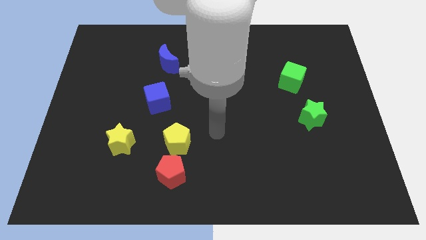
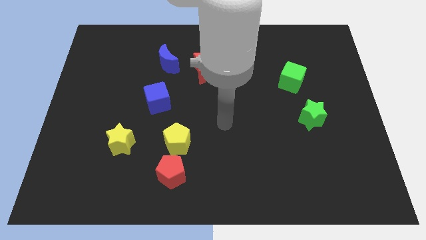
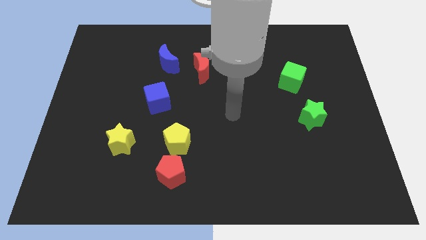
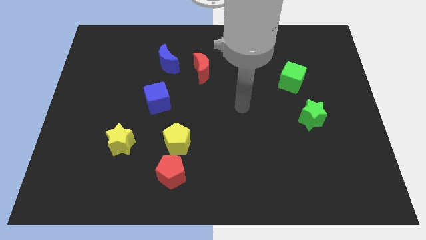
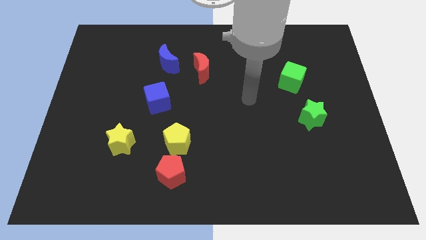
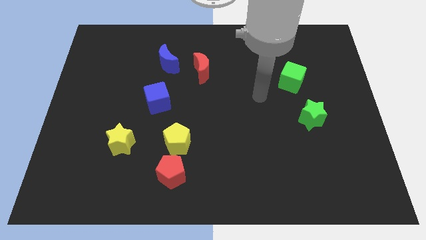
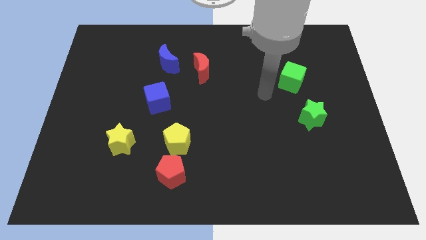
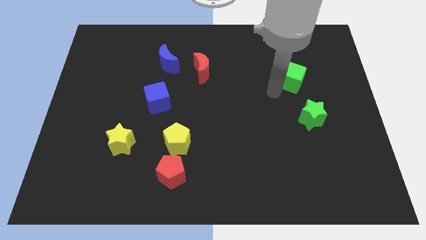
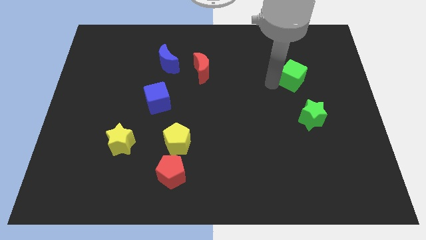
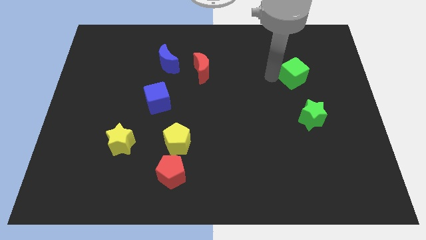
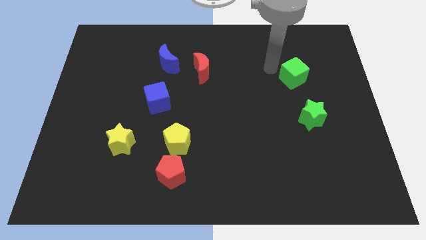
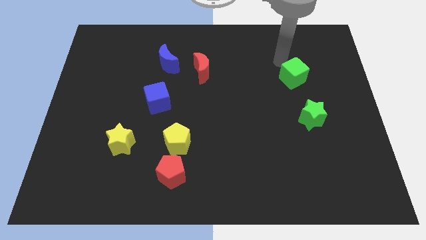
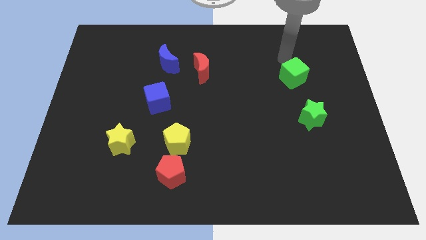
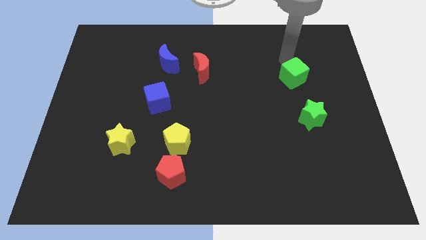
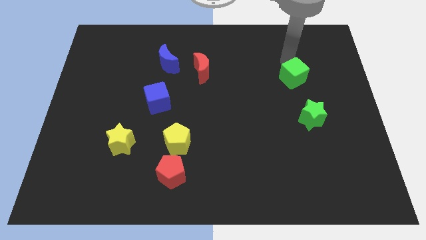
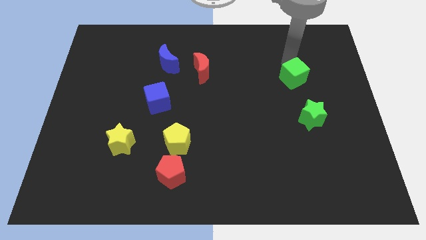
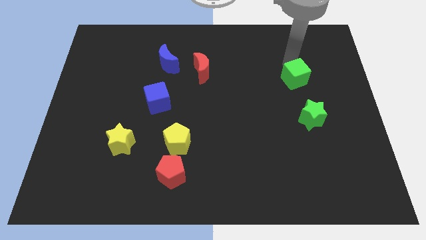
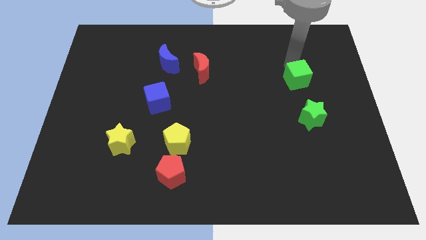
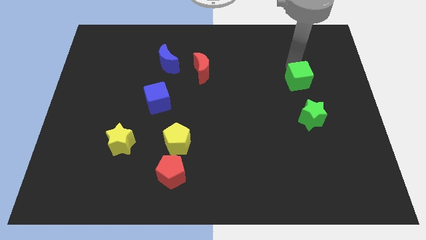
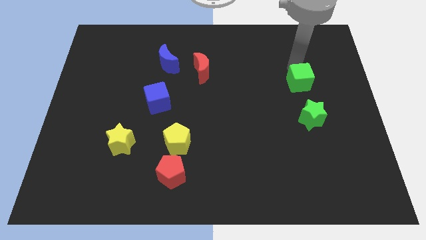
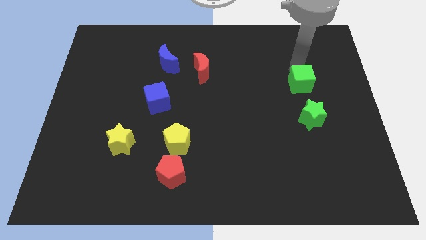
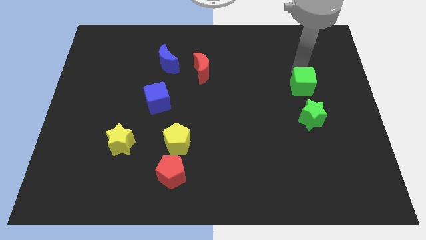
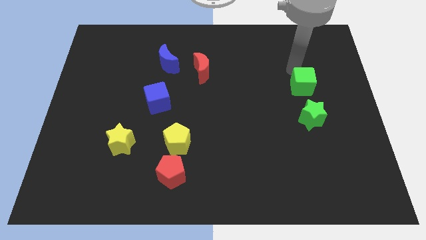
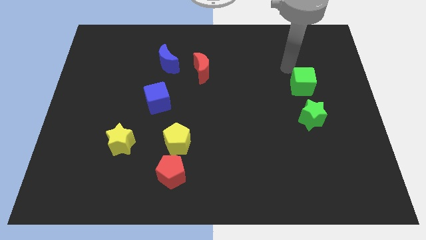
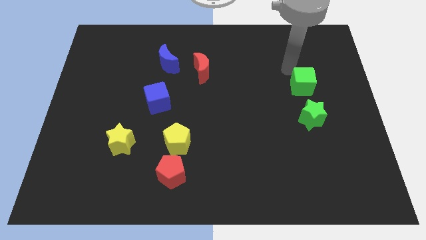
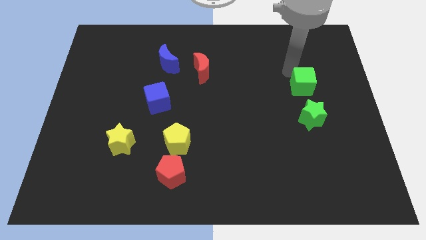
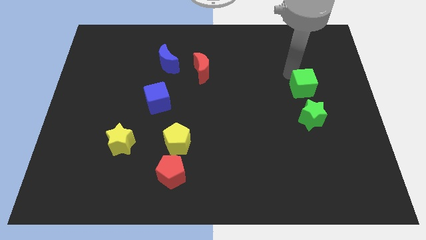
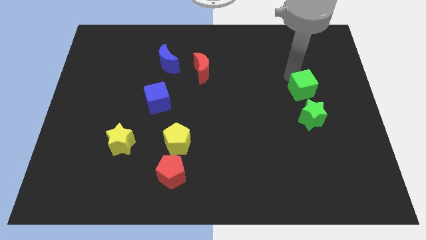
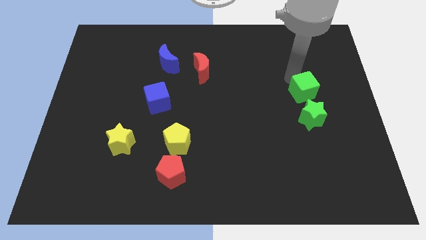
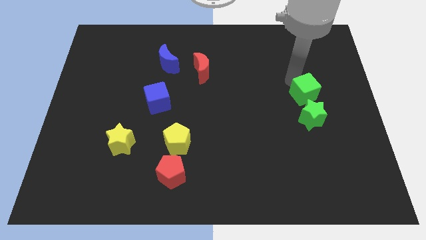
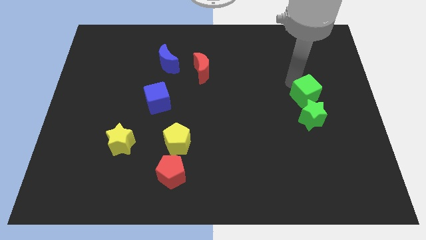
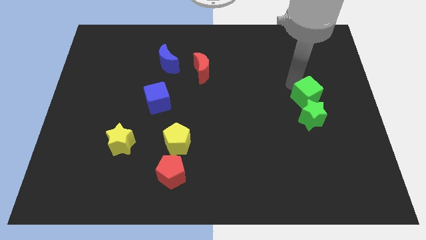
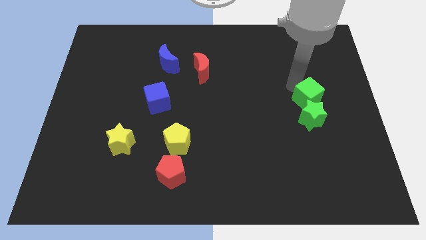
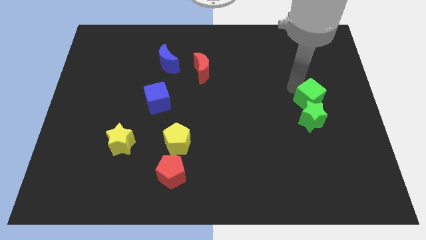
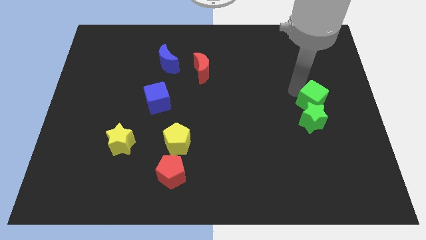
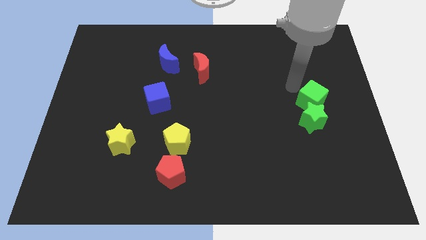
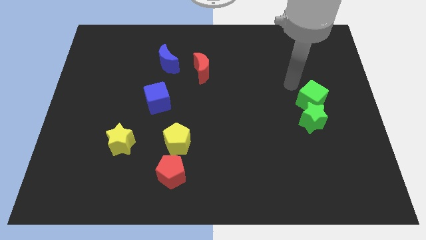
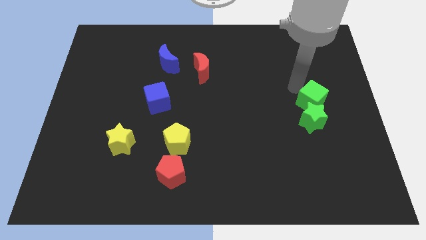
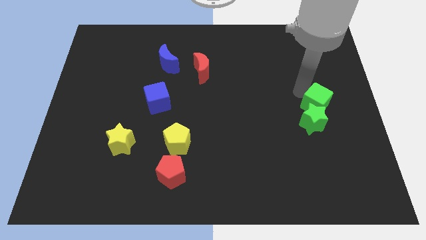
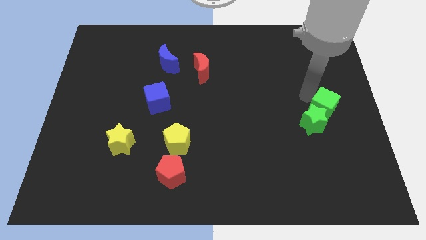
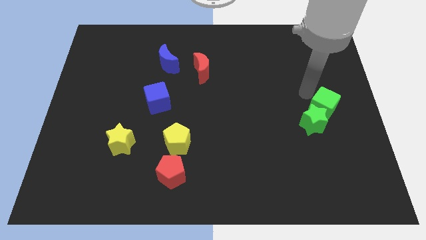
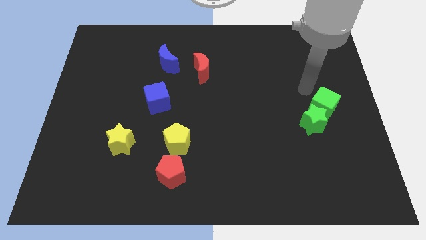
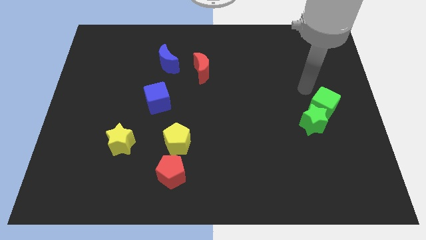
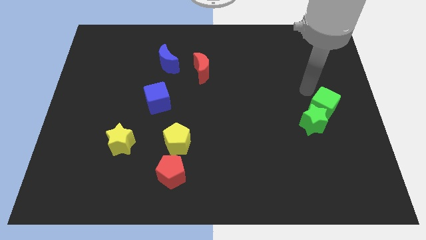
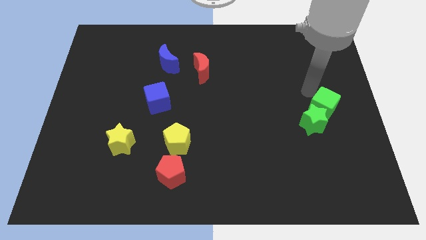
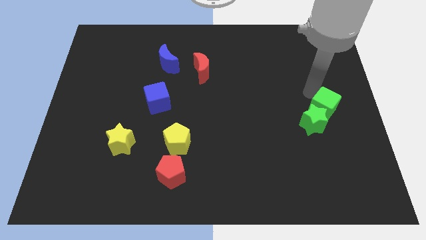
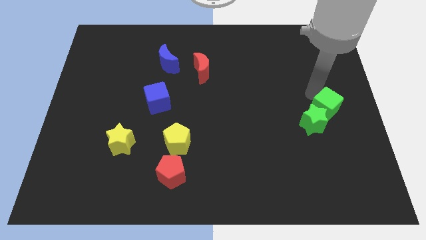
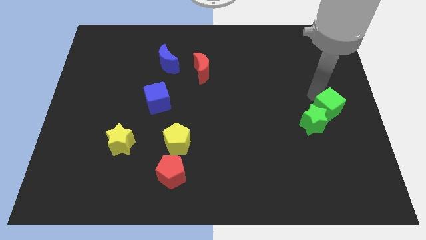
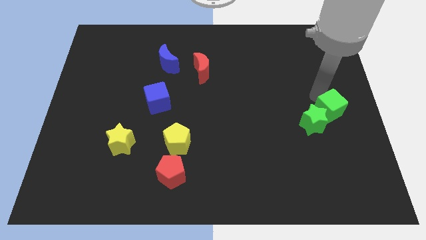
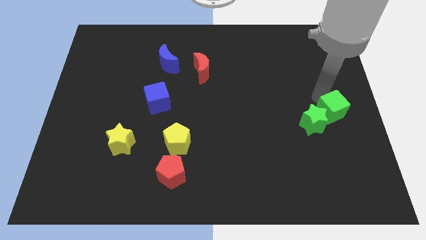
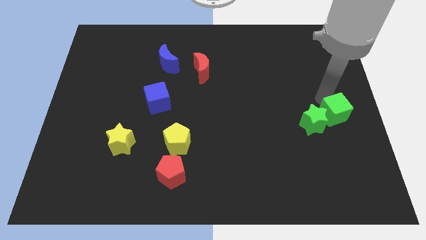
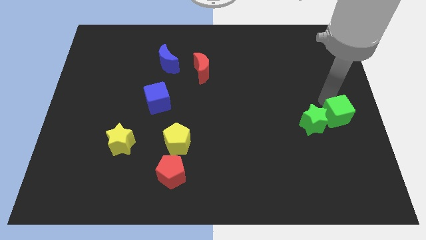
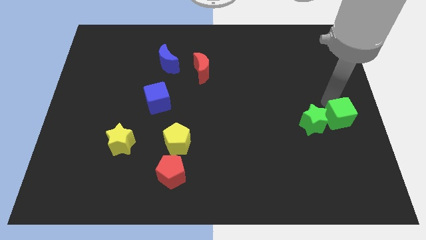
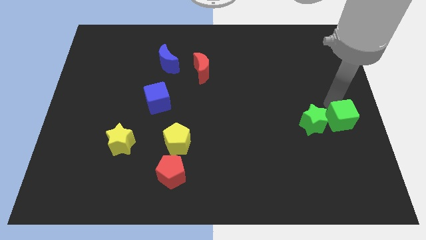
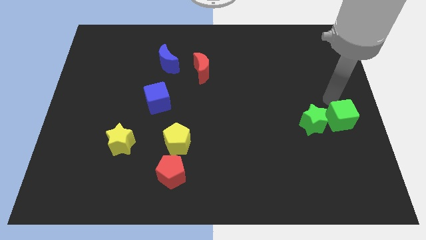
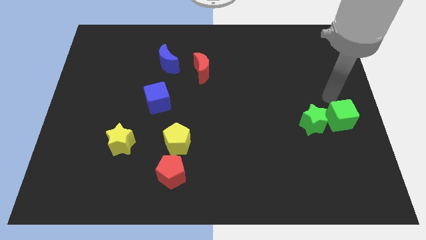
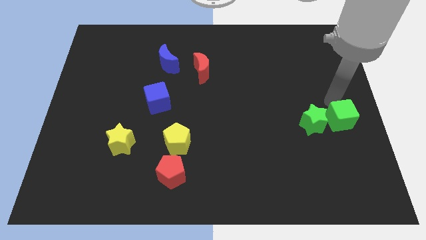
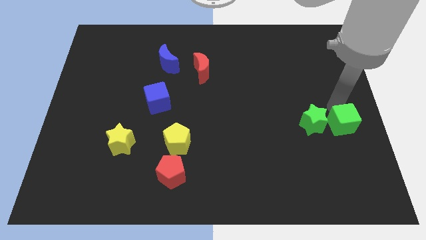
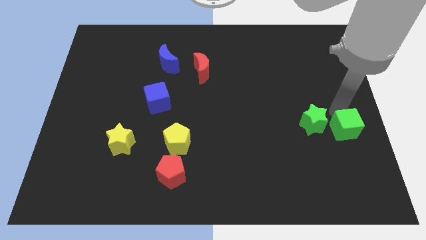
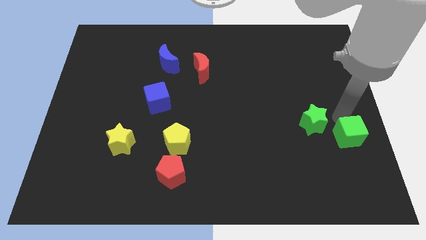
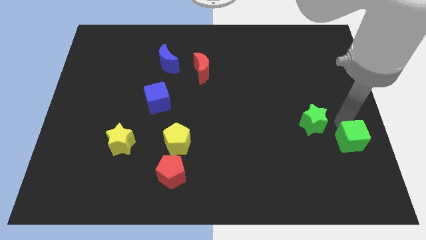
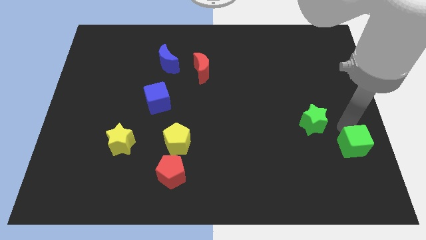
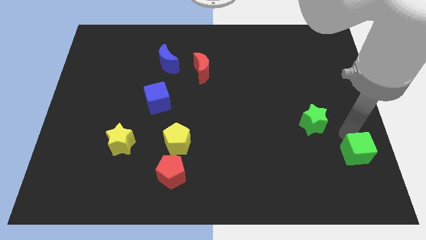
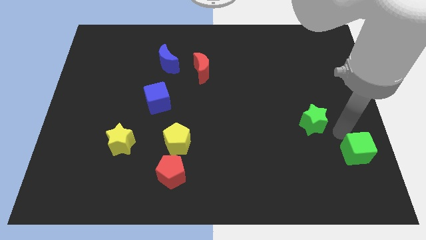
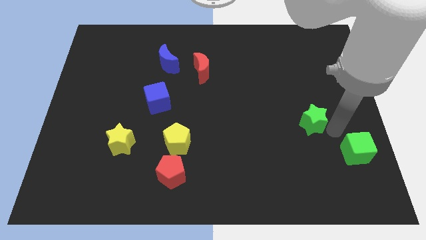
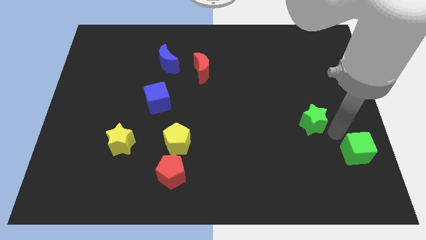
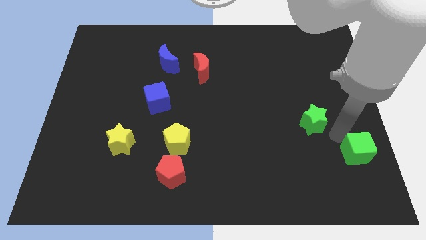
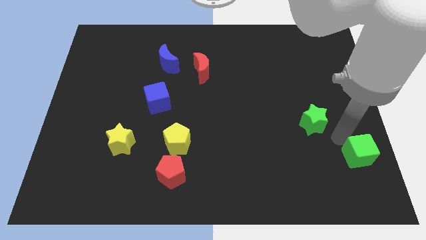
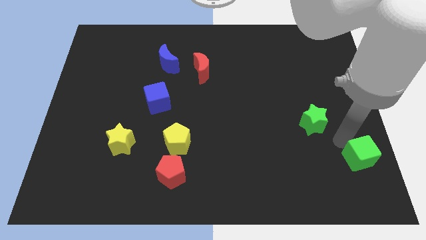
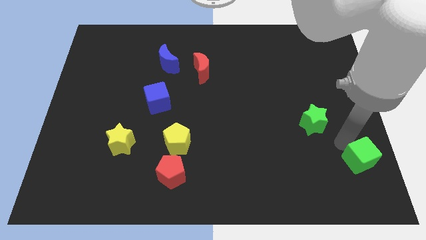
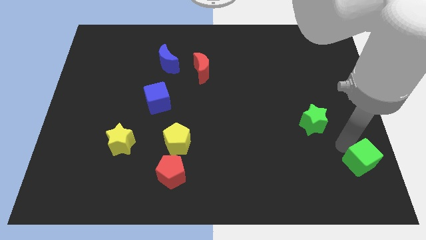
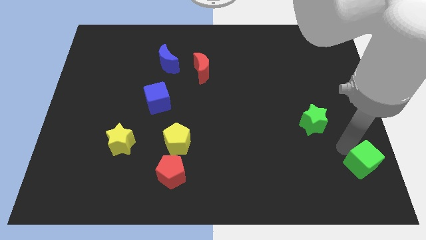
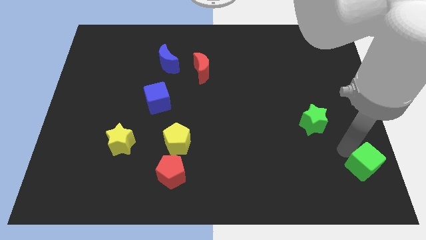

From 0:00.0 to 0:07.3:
push the green cube to the bottom right
